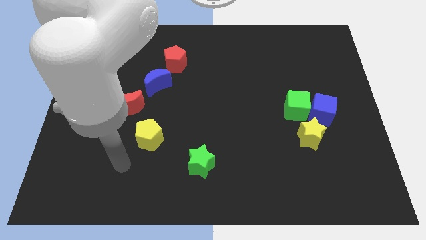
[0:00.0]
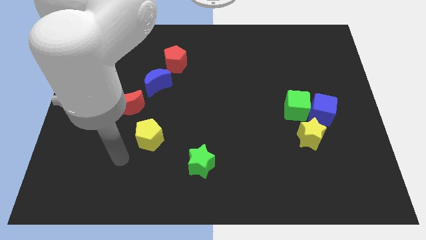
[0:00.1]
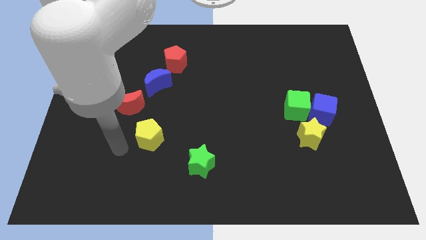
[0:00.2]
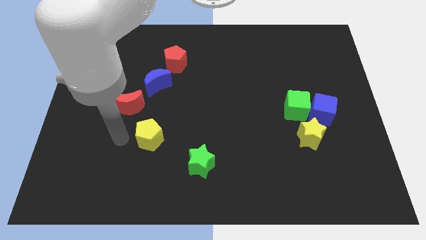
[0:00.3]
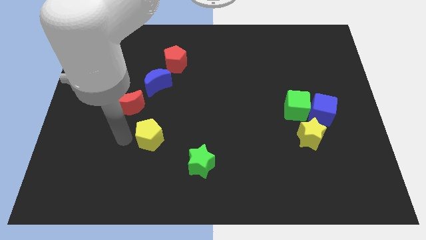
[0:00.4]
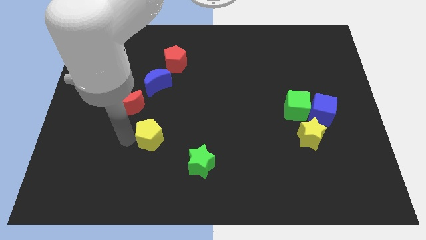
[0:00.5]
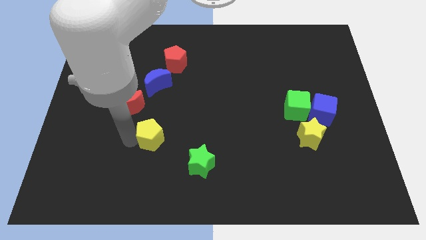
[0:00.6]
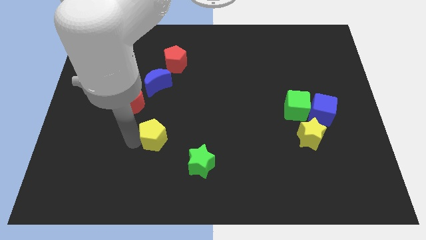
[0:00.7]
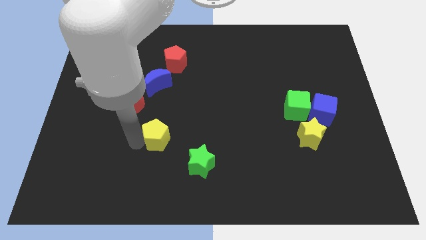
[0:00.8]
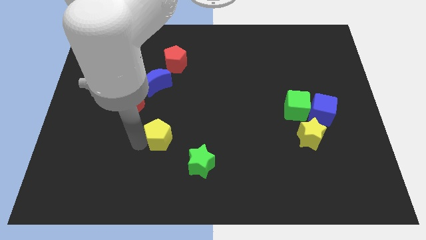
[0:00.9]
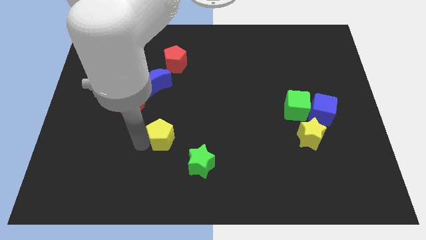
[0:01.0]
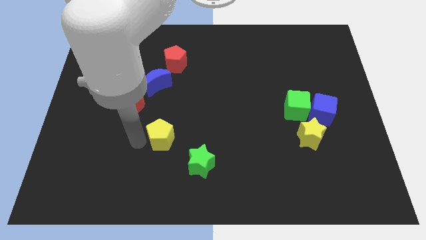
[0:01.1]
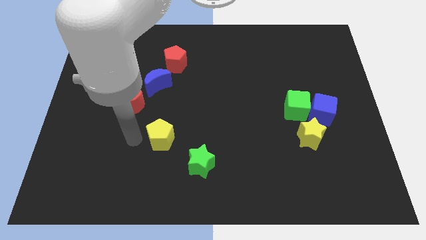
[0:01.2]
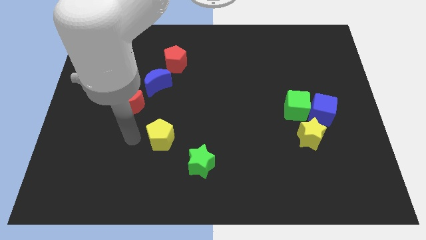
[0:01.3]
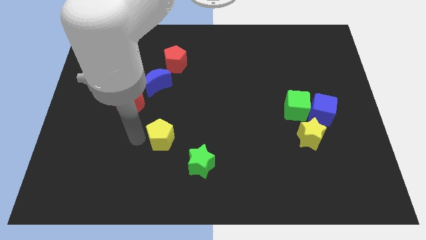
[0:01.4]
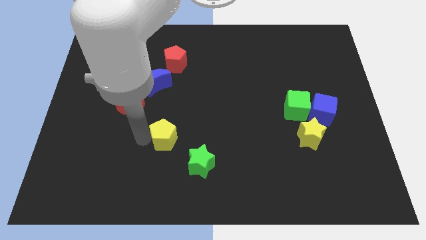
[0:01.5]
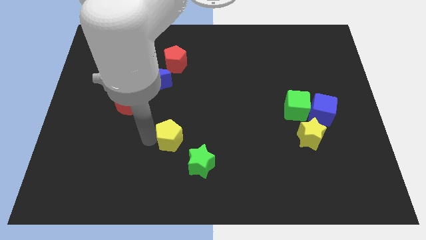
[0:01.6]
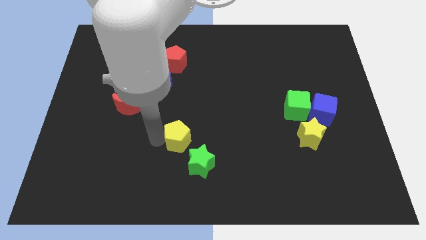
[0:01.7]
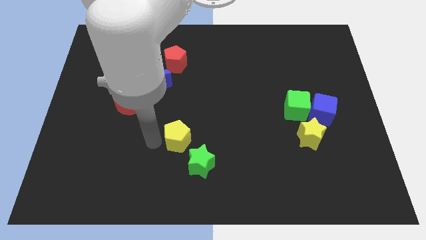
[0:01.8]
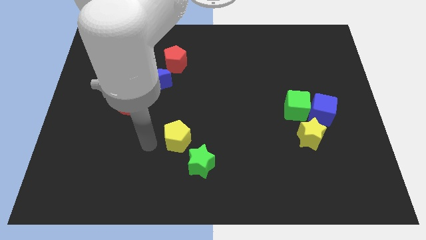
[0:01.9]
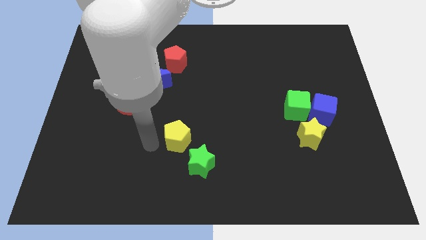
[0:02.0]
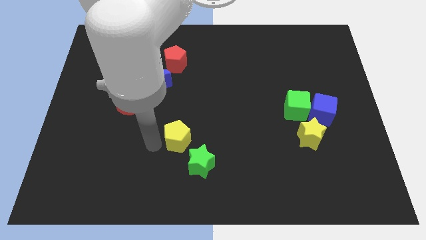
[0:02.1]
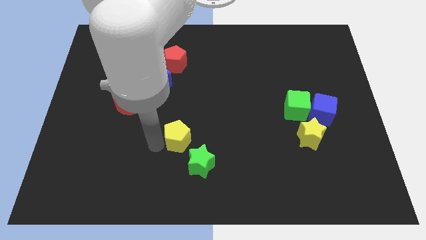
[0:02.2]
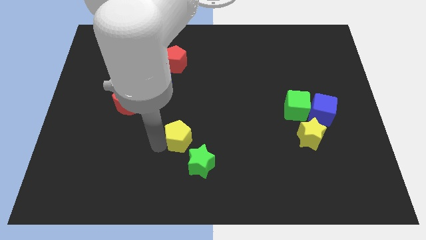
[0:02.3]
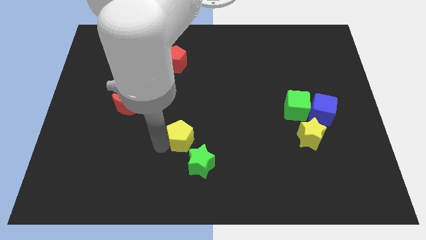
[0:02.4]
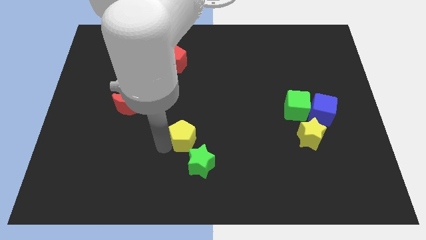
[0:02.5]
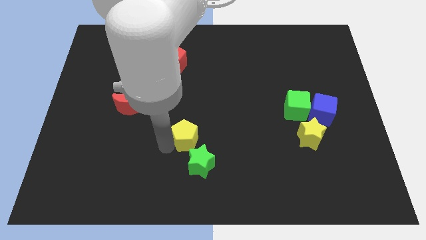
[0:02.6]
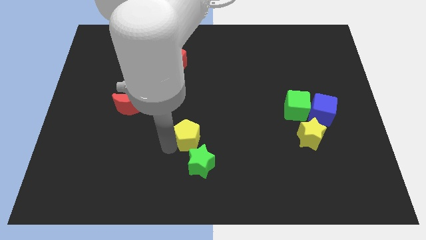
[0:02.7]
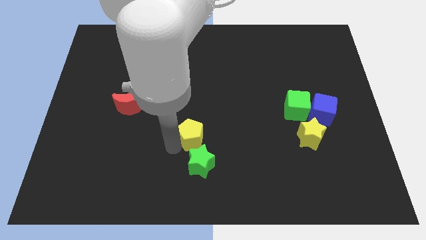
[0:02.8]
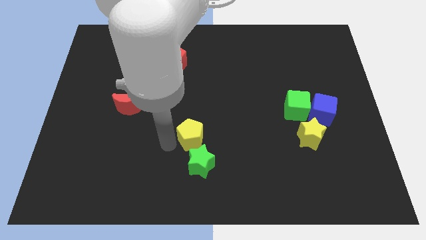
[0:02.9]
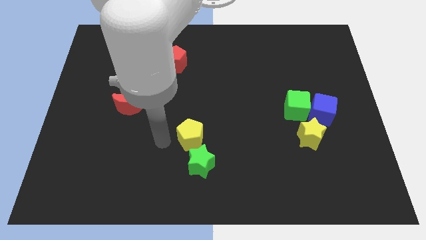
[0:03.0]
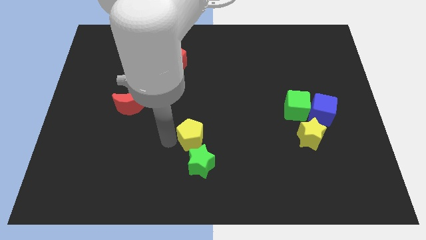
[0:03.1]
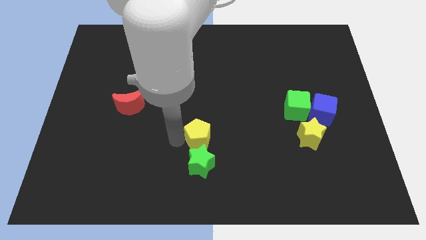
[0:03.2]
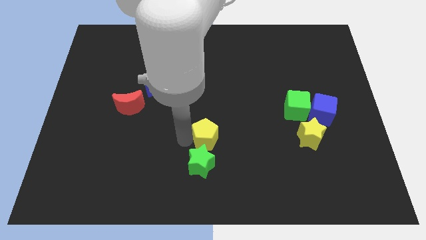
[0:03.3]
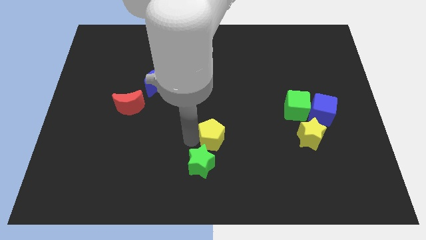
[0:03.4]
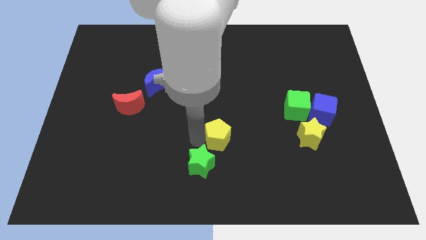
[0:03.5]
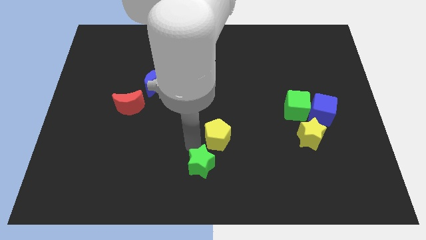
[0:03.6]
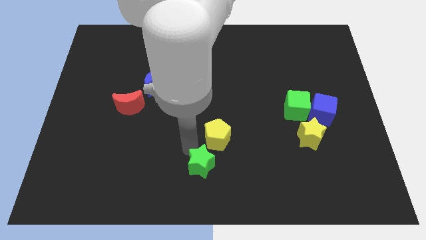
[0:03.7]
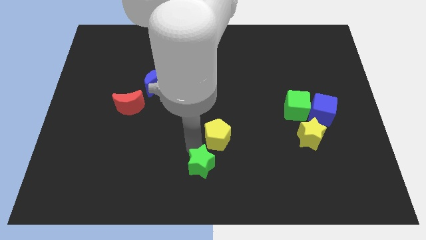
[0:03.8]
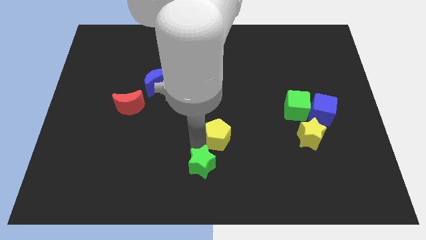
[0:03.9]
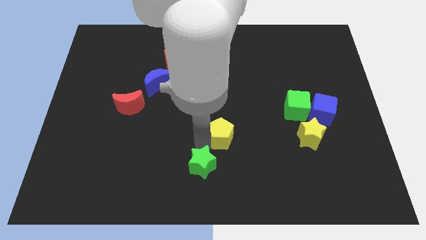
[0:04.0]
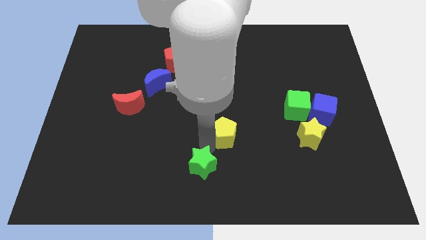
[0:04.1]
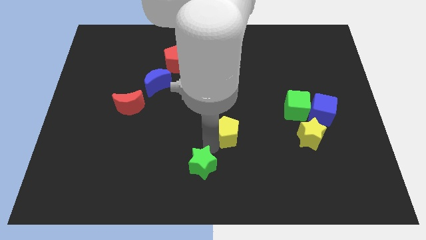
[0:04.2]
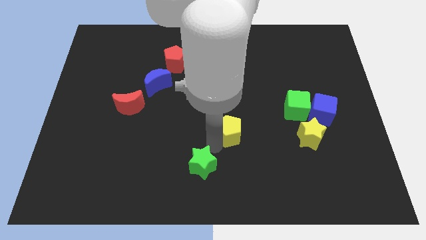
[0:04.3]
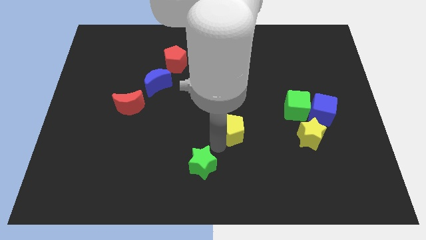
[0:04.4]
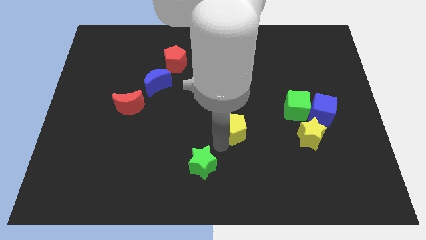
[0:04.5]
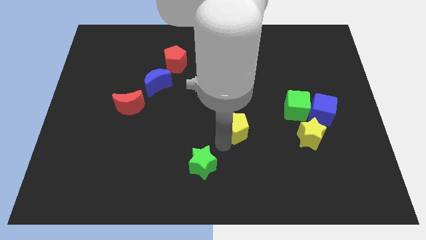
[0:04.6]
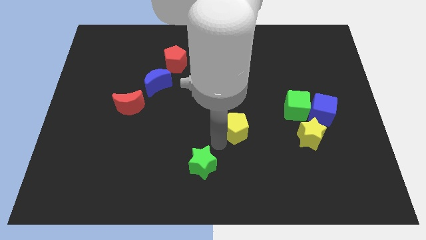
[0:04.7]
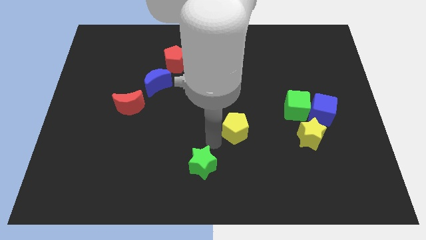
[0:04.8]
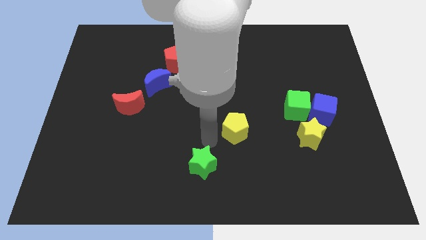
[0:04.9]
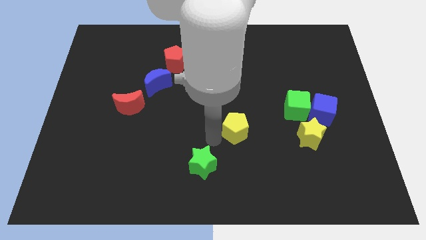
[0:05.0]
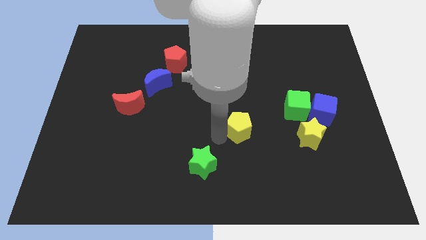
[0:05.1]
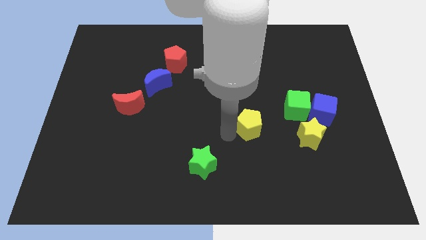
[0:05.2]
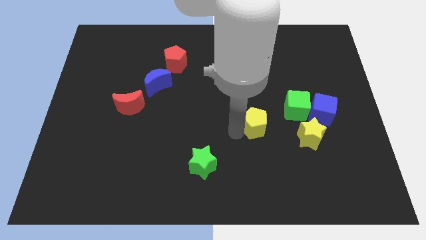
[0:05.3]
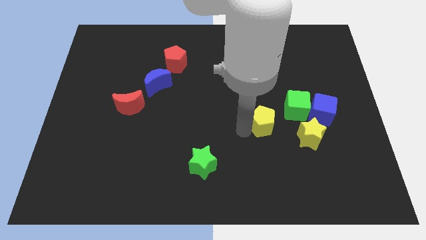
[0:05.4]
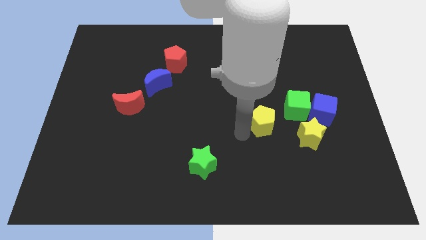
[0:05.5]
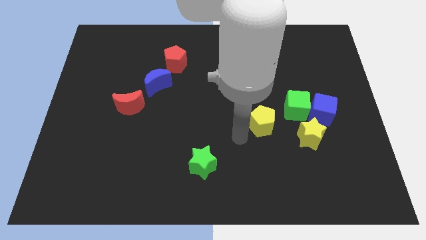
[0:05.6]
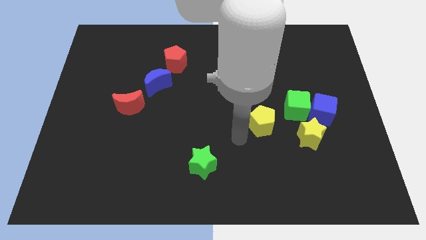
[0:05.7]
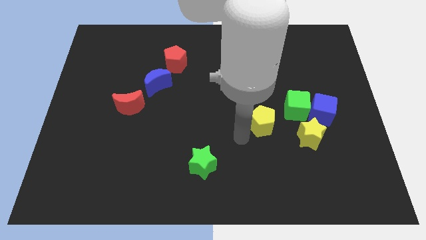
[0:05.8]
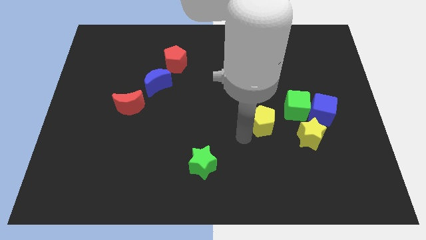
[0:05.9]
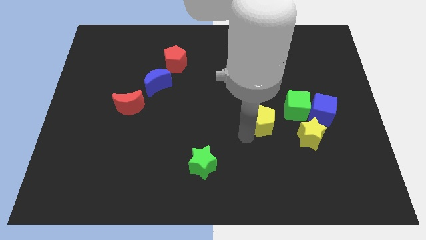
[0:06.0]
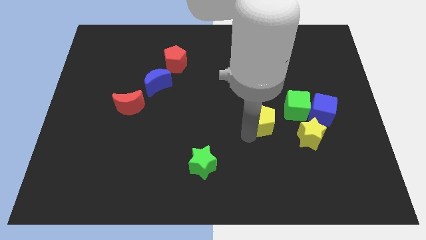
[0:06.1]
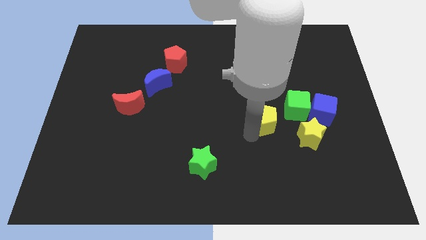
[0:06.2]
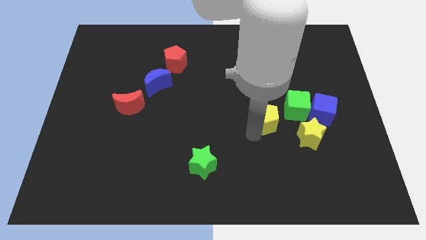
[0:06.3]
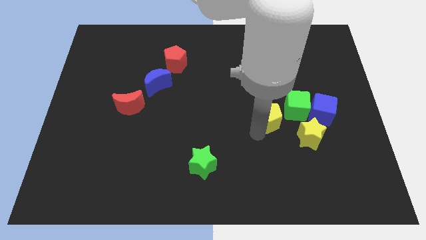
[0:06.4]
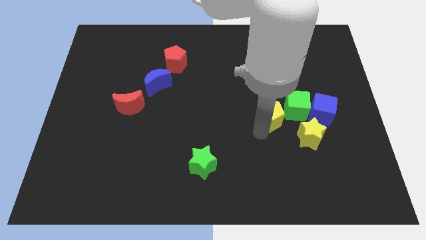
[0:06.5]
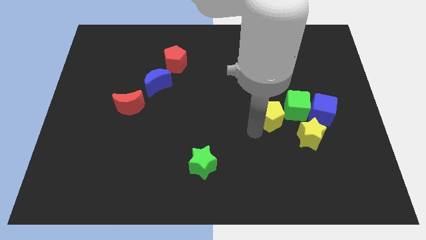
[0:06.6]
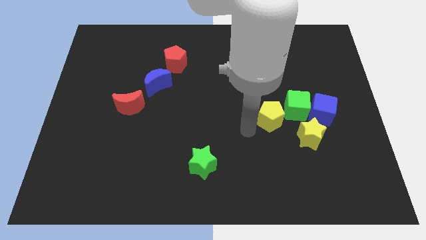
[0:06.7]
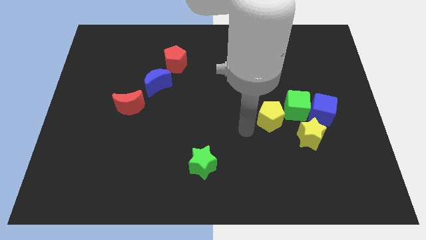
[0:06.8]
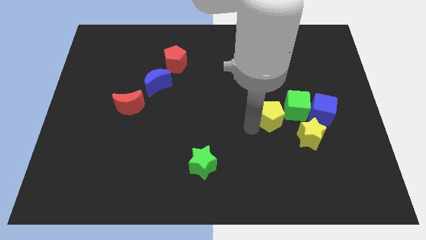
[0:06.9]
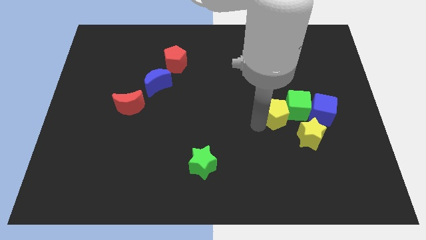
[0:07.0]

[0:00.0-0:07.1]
put the yellow pentagon close to the green cube

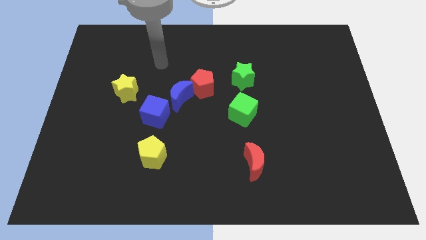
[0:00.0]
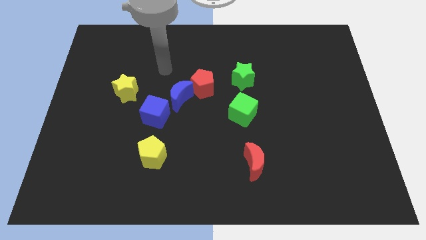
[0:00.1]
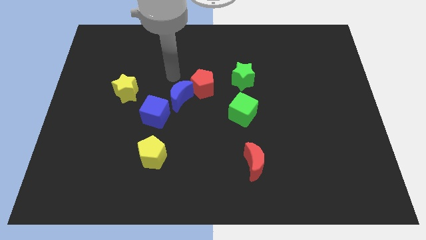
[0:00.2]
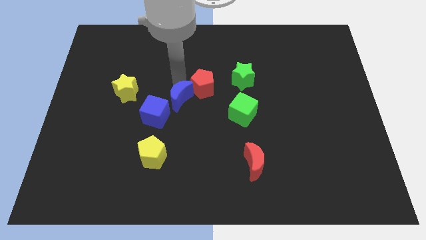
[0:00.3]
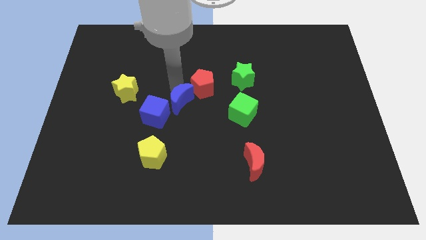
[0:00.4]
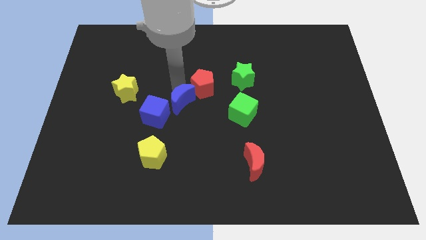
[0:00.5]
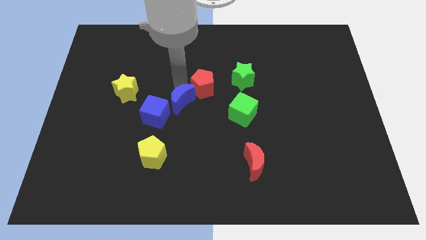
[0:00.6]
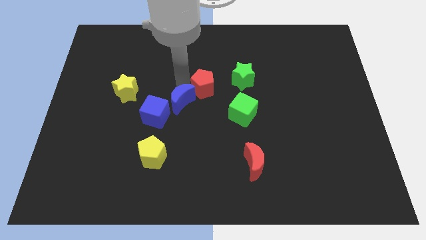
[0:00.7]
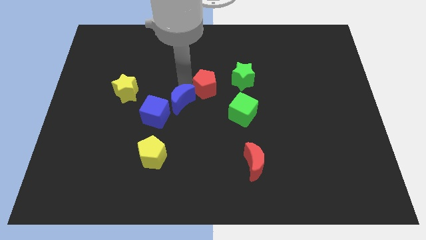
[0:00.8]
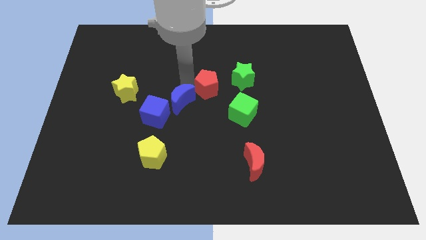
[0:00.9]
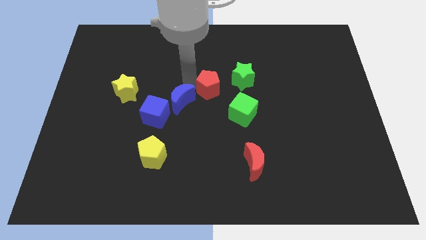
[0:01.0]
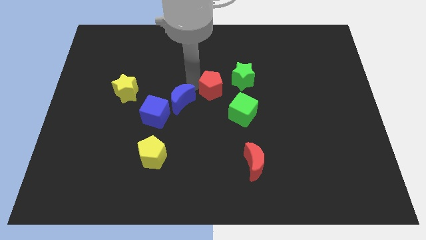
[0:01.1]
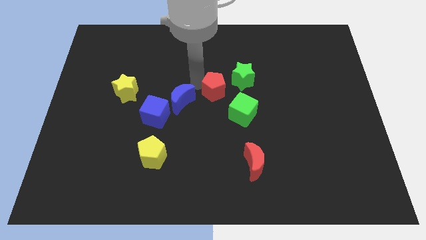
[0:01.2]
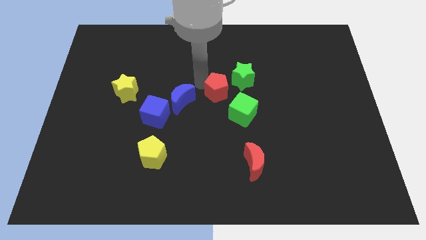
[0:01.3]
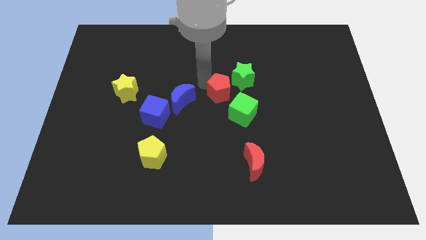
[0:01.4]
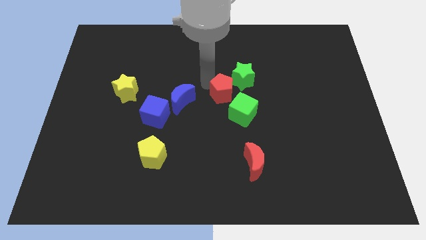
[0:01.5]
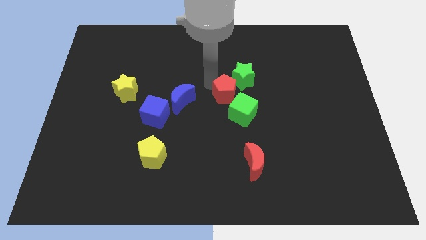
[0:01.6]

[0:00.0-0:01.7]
move the red pentagon close to the green star
